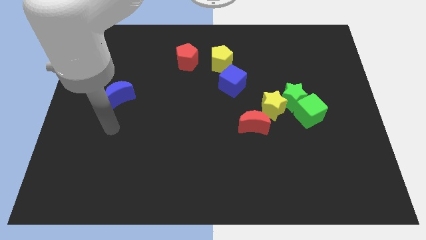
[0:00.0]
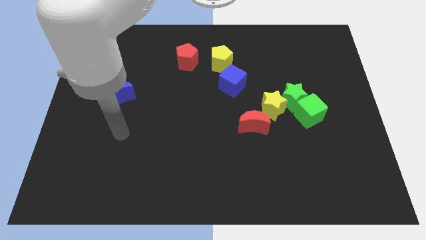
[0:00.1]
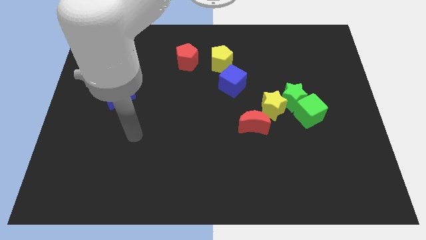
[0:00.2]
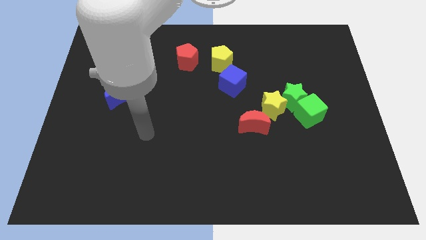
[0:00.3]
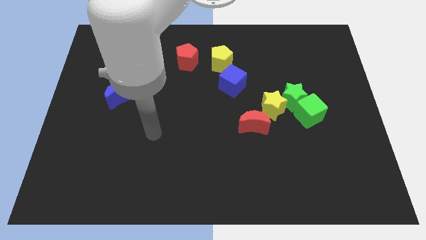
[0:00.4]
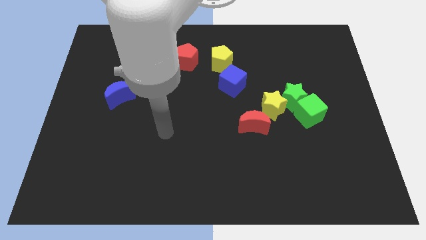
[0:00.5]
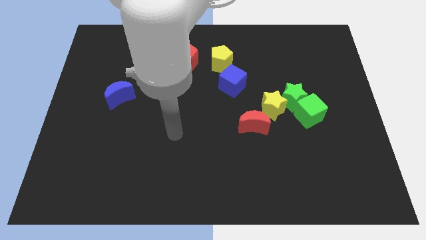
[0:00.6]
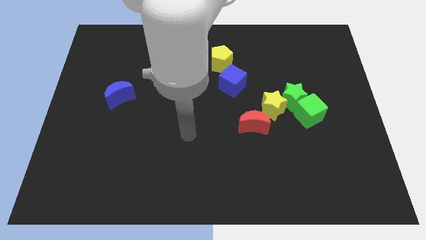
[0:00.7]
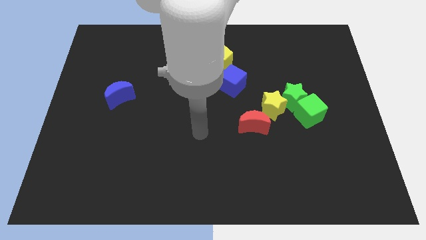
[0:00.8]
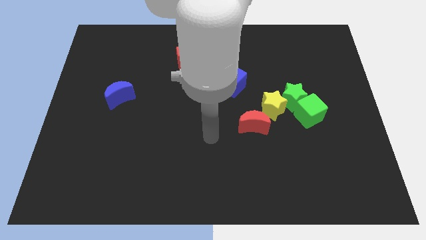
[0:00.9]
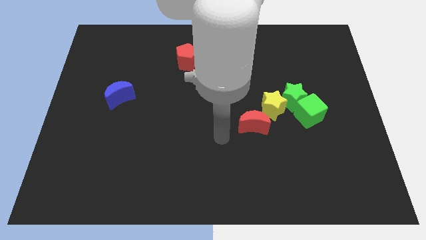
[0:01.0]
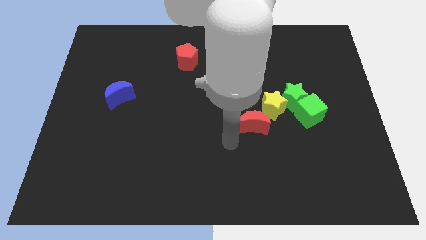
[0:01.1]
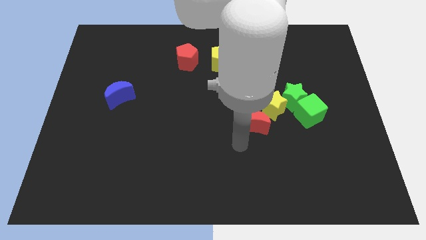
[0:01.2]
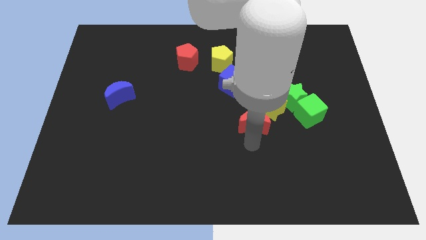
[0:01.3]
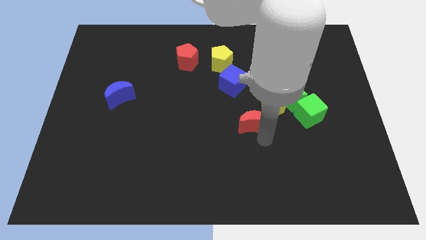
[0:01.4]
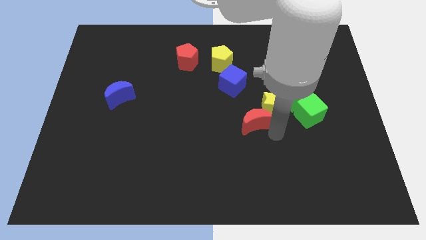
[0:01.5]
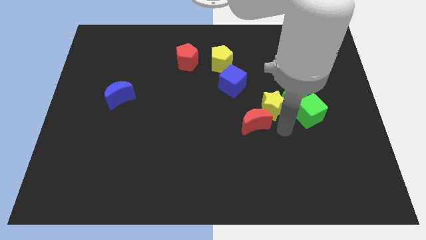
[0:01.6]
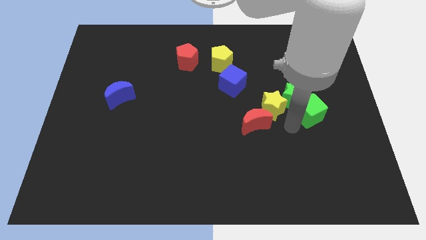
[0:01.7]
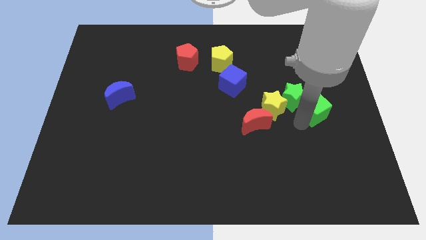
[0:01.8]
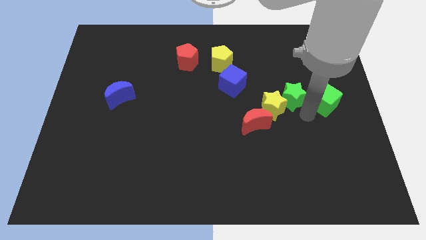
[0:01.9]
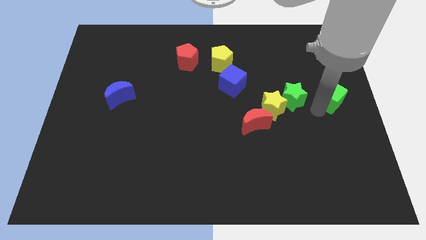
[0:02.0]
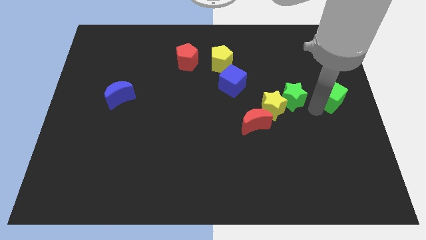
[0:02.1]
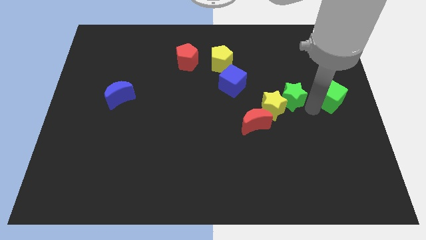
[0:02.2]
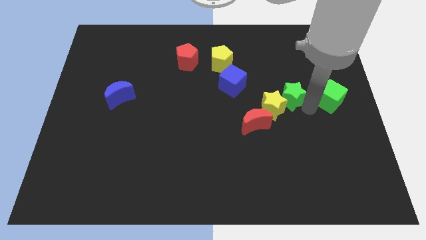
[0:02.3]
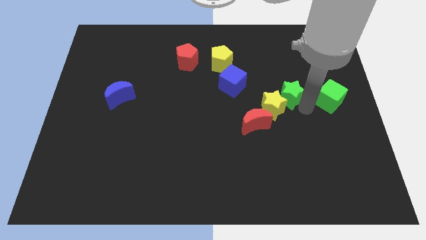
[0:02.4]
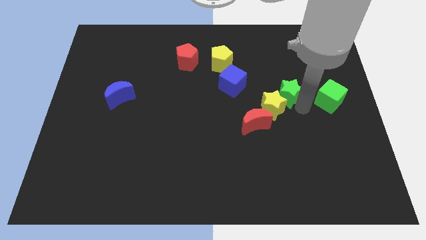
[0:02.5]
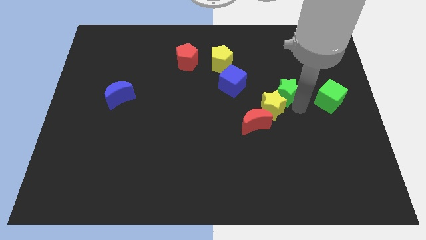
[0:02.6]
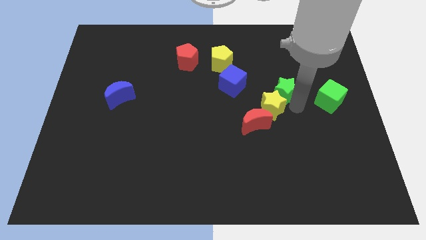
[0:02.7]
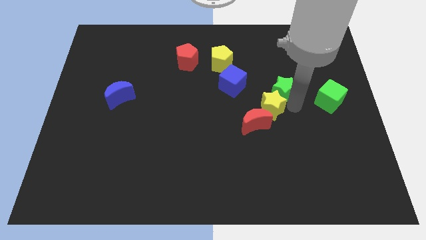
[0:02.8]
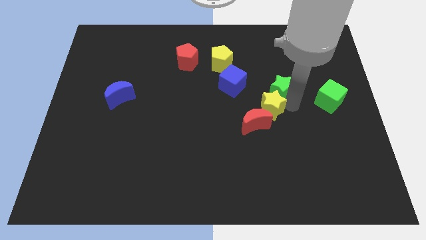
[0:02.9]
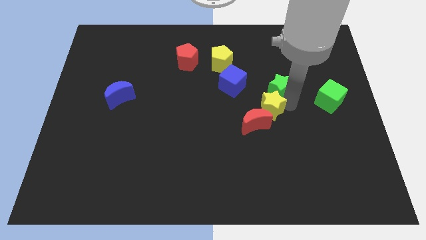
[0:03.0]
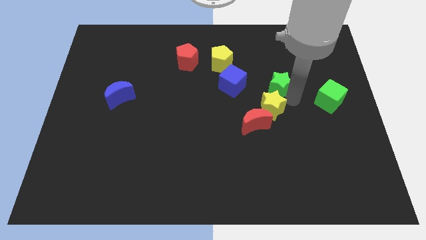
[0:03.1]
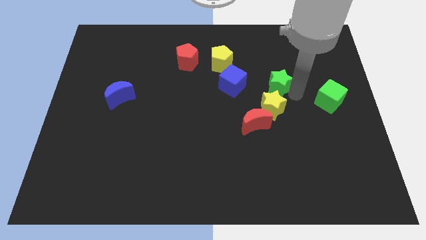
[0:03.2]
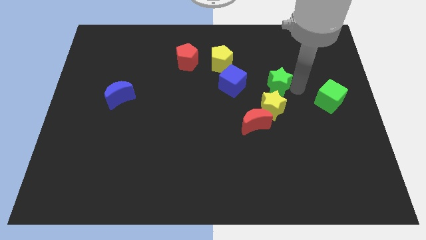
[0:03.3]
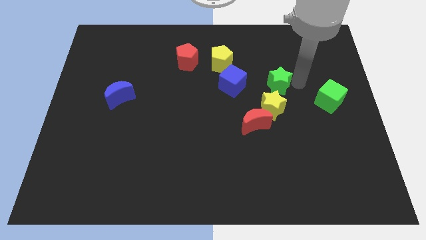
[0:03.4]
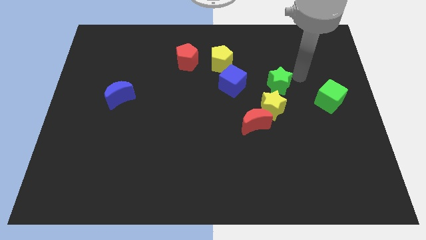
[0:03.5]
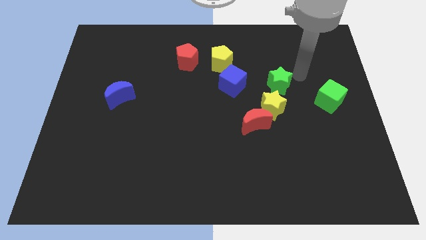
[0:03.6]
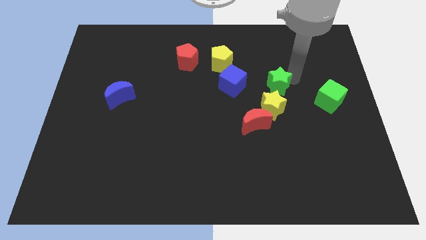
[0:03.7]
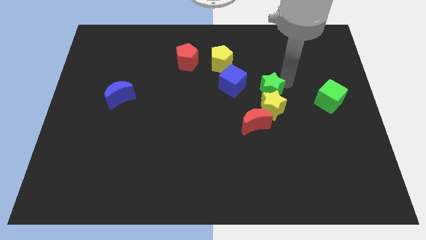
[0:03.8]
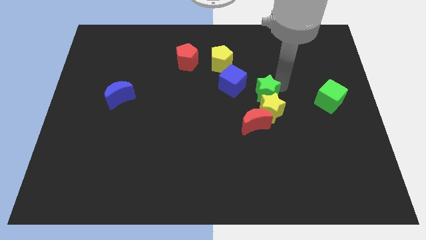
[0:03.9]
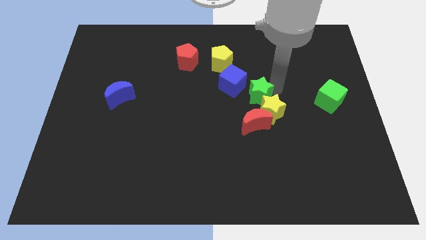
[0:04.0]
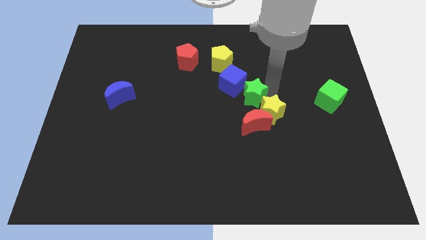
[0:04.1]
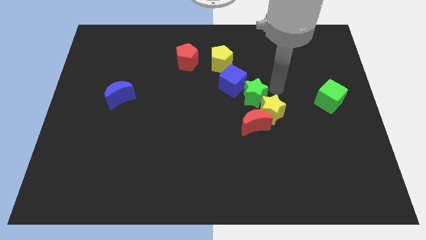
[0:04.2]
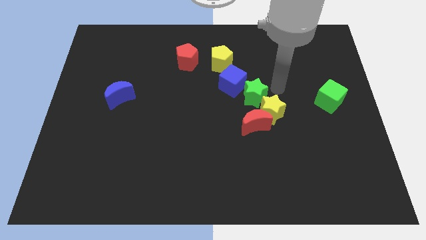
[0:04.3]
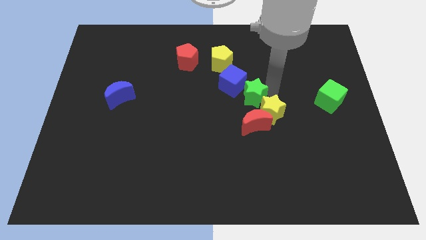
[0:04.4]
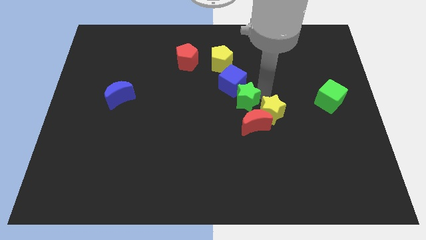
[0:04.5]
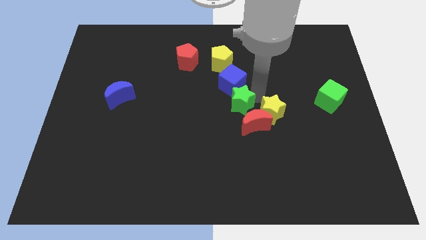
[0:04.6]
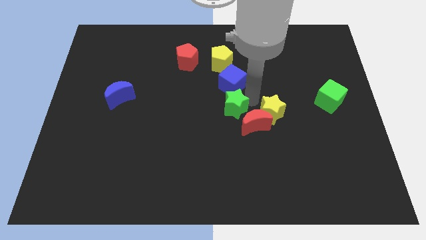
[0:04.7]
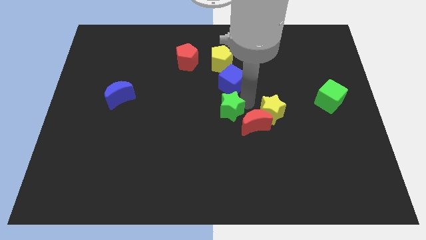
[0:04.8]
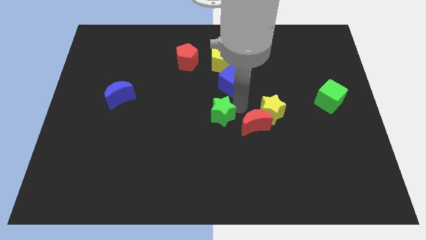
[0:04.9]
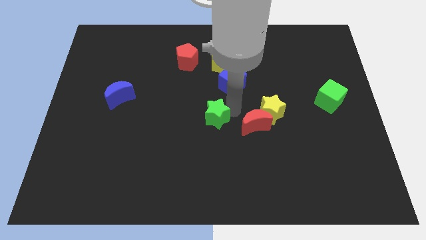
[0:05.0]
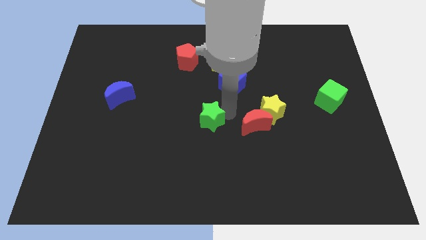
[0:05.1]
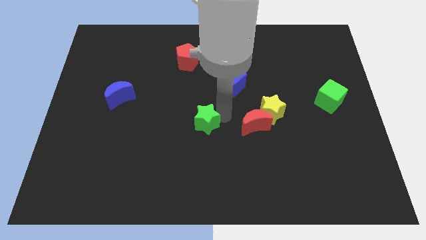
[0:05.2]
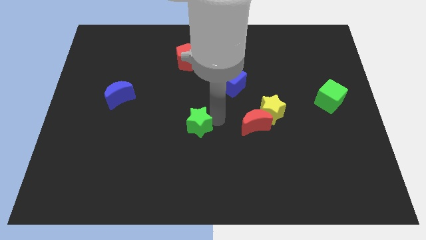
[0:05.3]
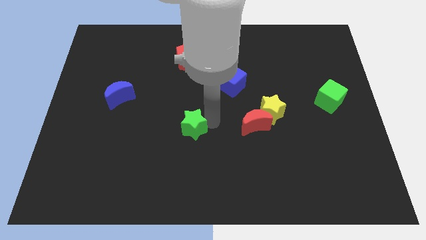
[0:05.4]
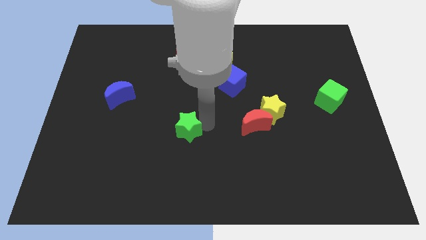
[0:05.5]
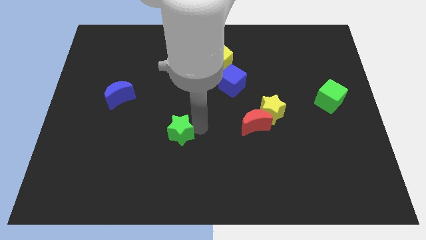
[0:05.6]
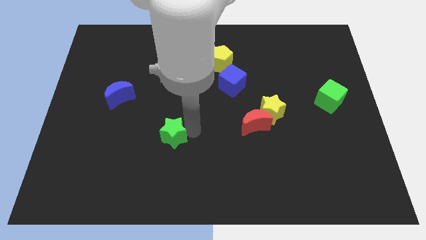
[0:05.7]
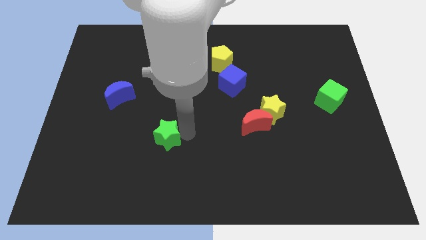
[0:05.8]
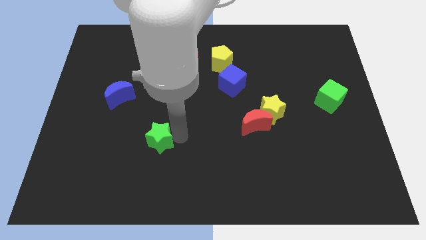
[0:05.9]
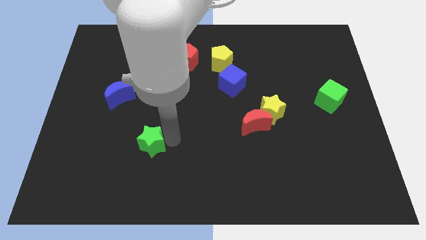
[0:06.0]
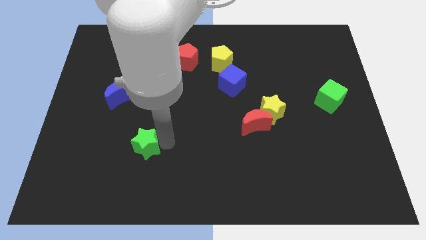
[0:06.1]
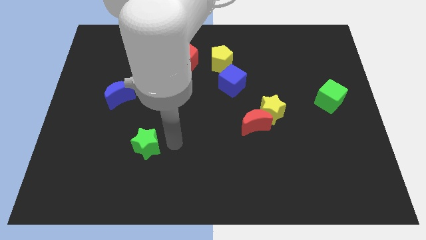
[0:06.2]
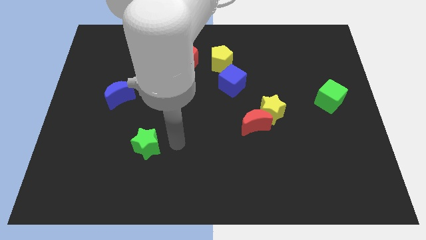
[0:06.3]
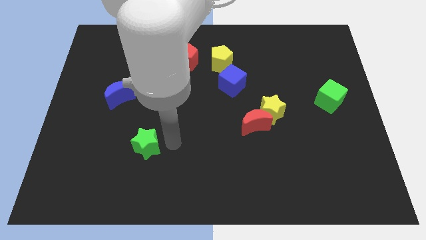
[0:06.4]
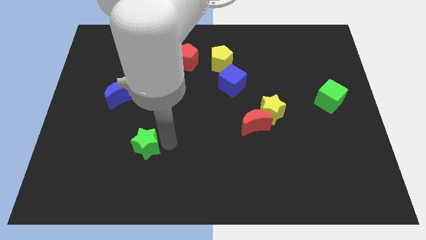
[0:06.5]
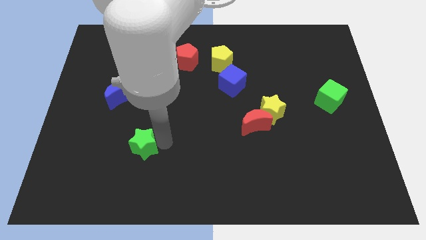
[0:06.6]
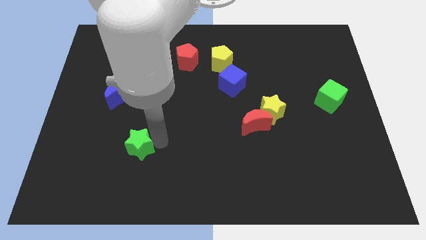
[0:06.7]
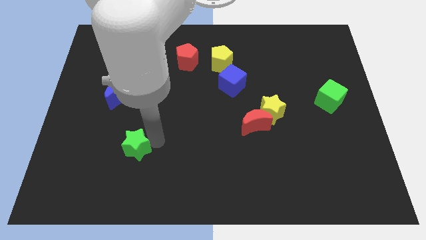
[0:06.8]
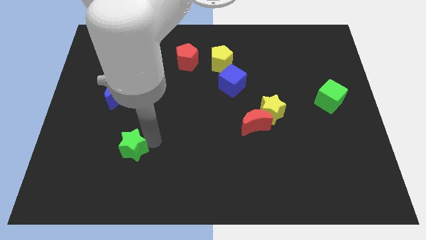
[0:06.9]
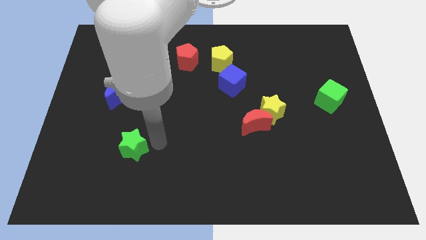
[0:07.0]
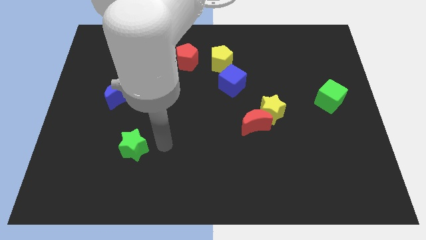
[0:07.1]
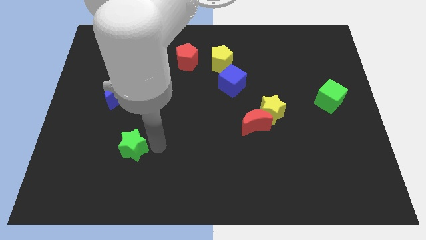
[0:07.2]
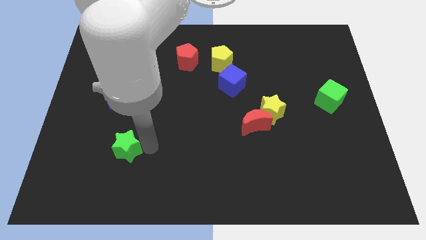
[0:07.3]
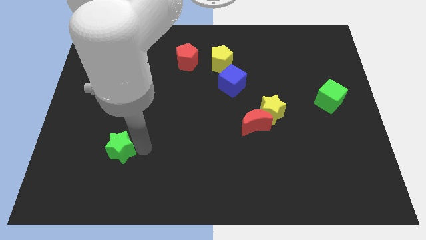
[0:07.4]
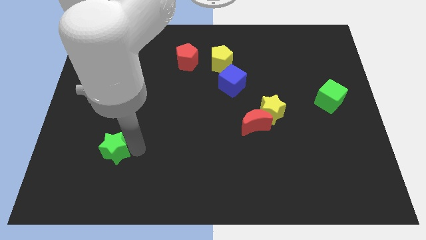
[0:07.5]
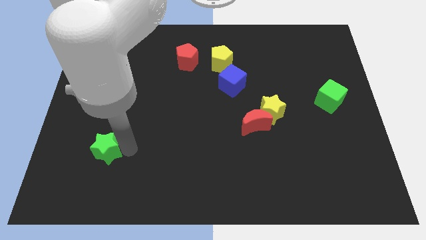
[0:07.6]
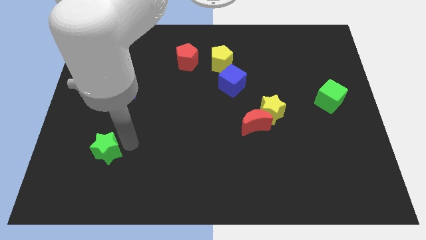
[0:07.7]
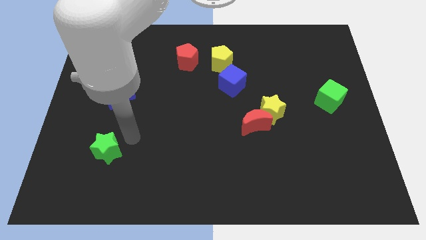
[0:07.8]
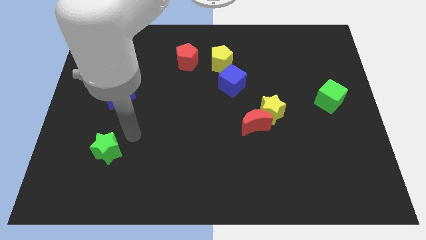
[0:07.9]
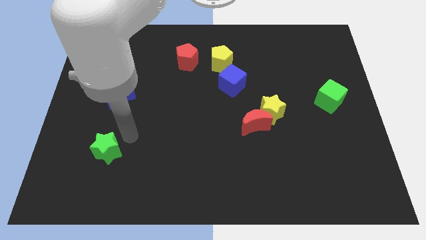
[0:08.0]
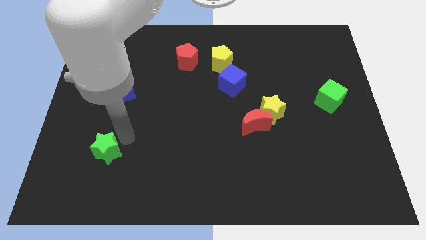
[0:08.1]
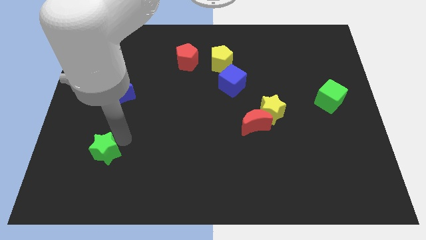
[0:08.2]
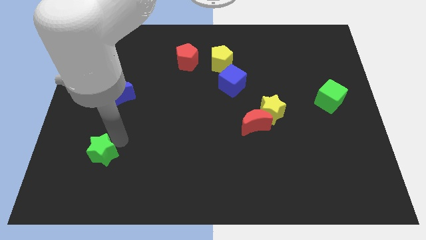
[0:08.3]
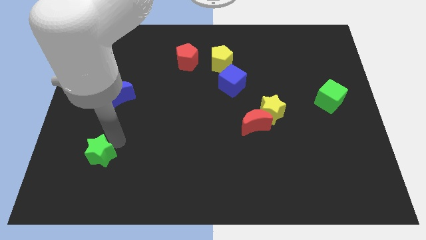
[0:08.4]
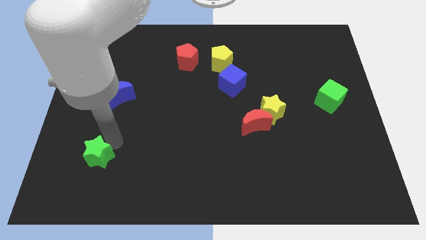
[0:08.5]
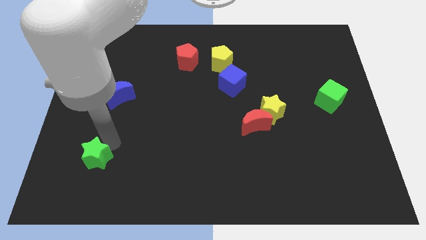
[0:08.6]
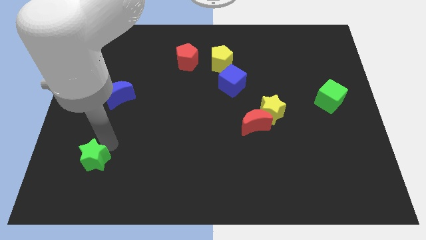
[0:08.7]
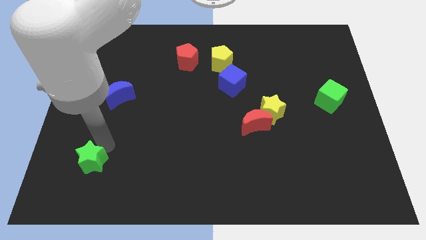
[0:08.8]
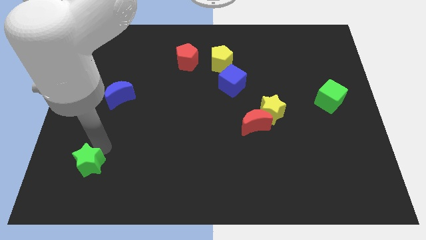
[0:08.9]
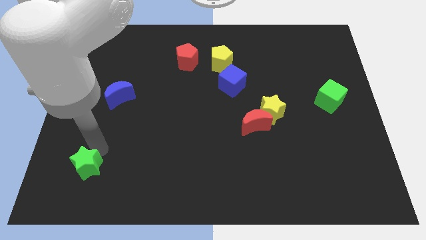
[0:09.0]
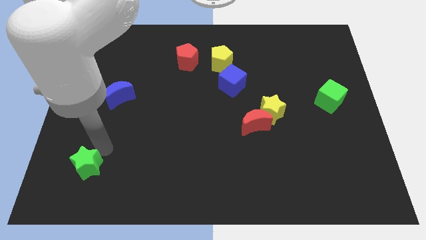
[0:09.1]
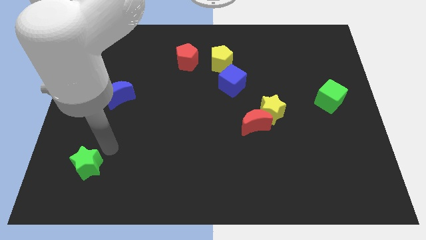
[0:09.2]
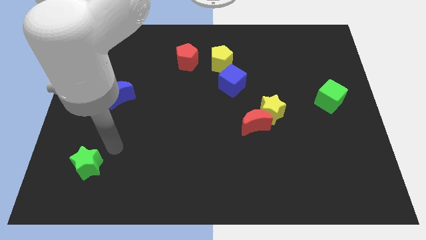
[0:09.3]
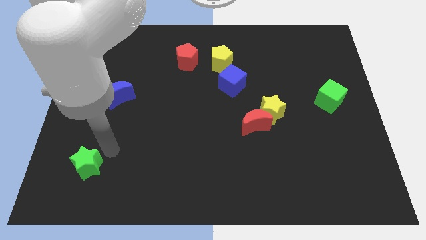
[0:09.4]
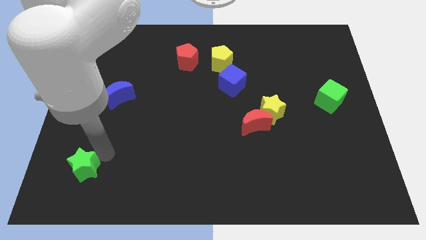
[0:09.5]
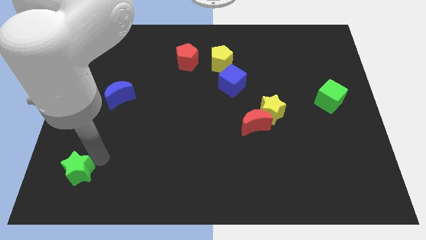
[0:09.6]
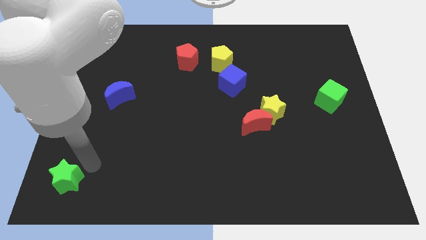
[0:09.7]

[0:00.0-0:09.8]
push the green star to the lower left corner
